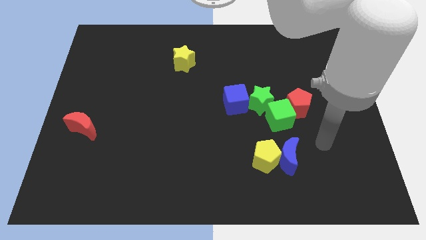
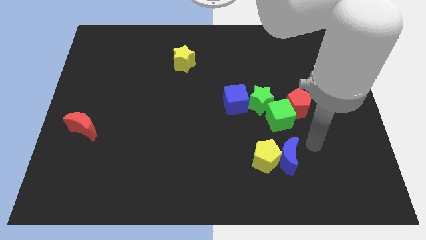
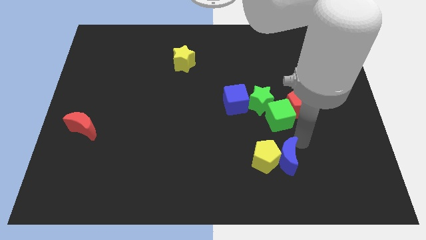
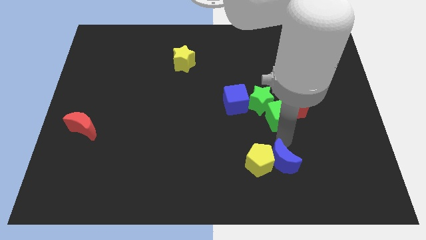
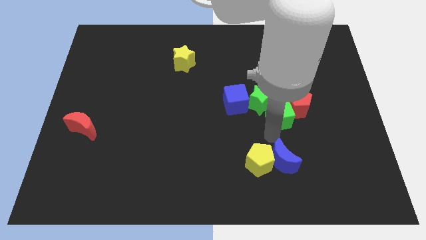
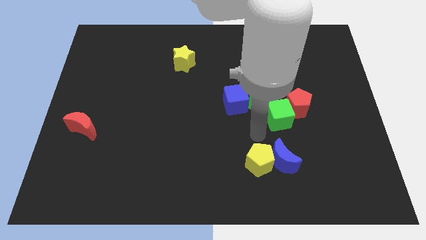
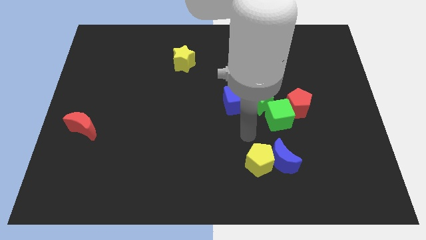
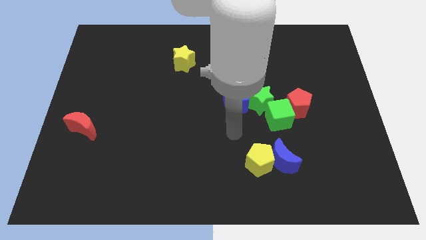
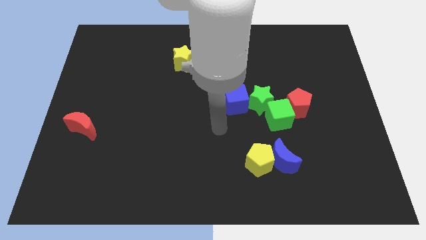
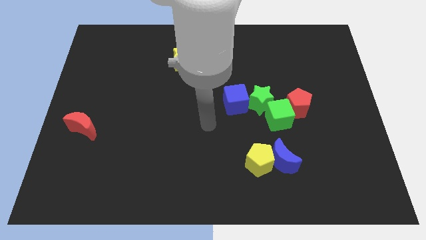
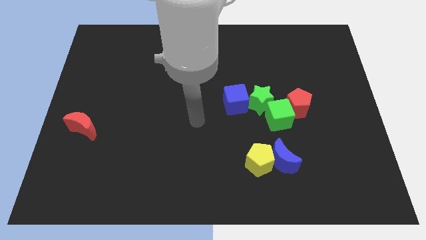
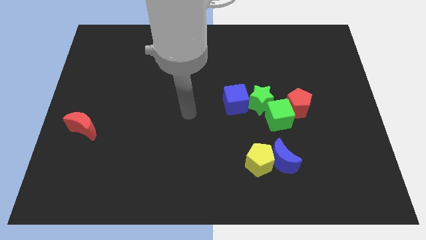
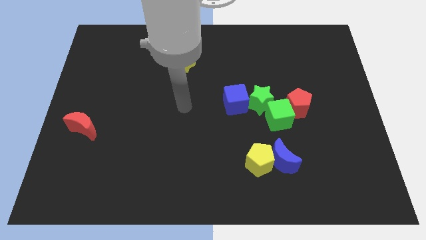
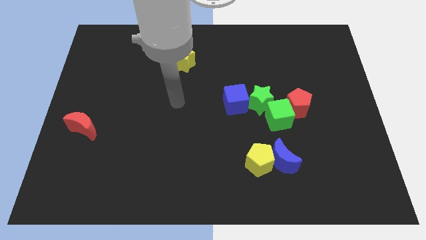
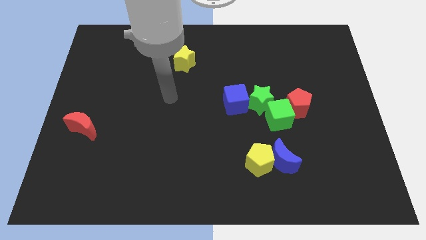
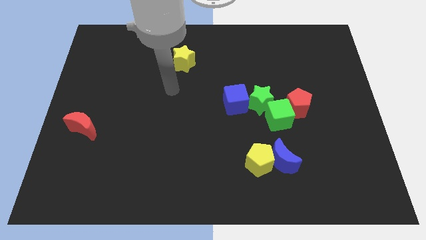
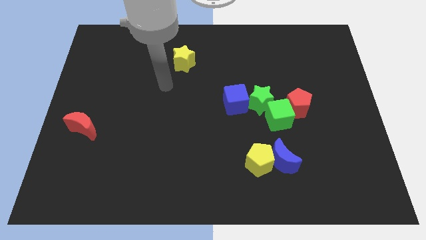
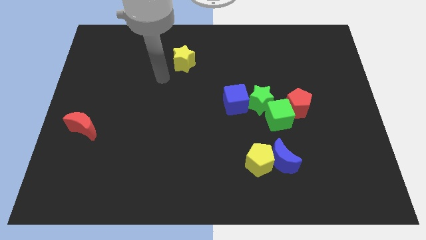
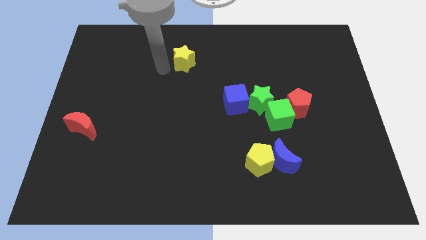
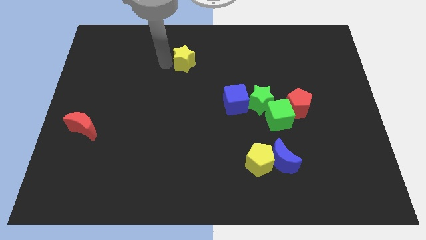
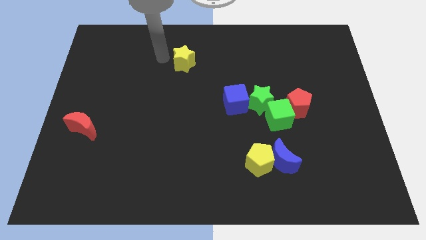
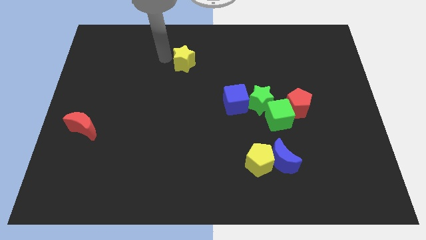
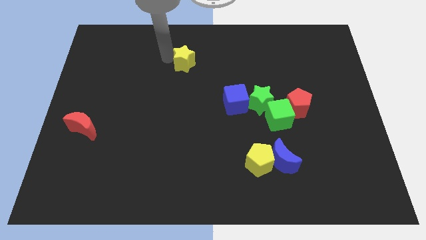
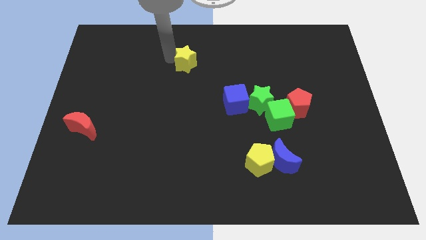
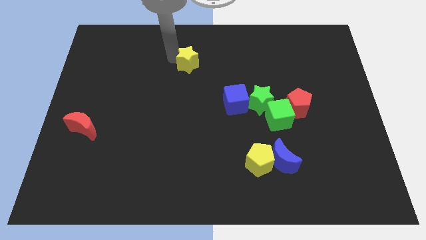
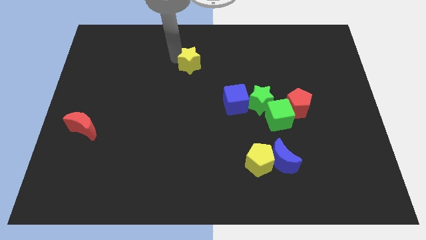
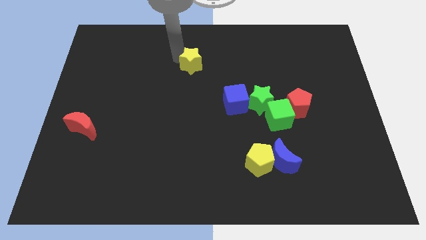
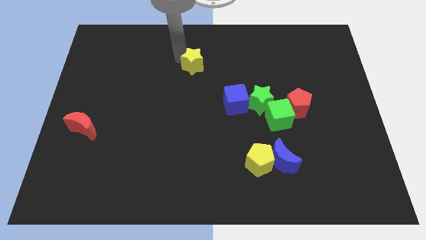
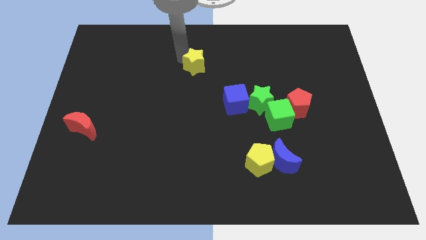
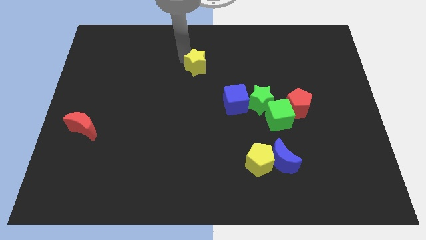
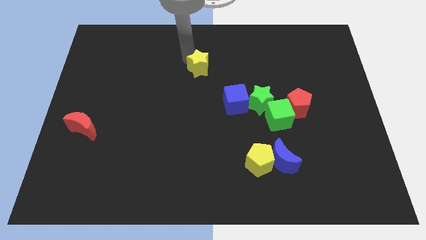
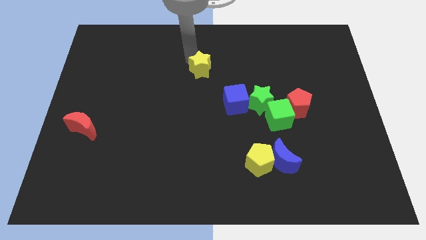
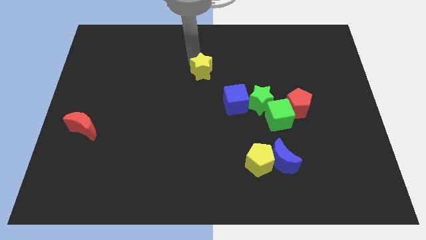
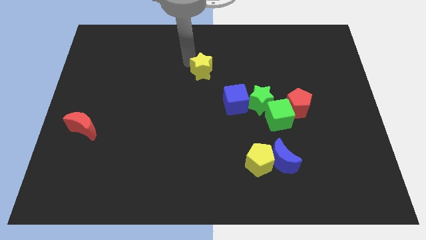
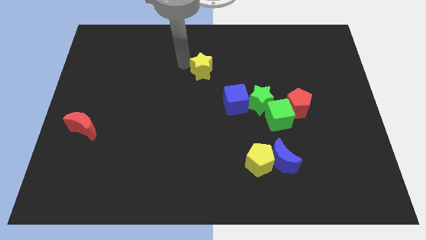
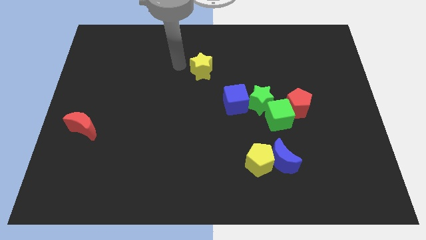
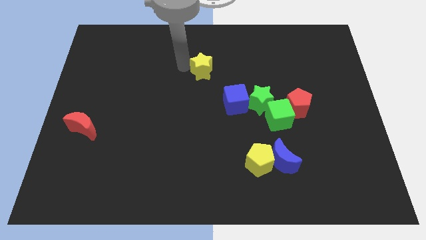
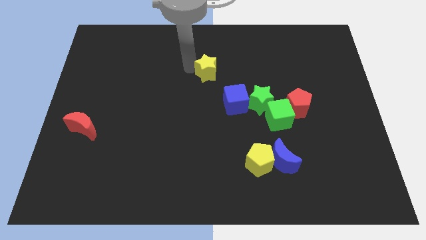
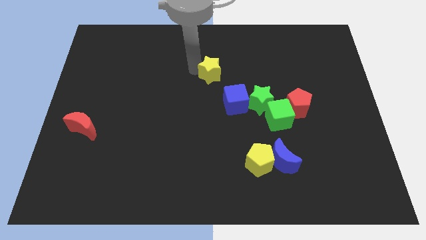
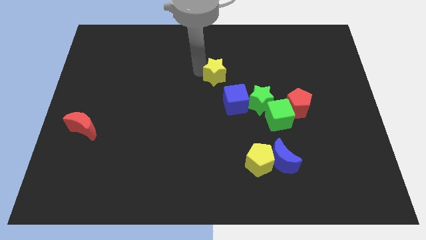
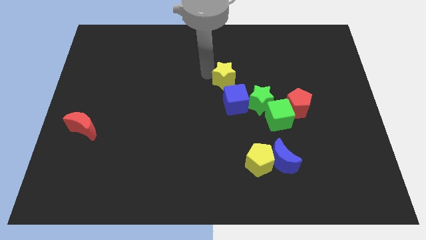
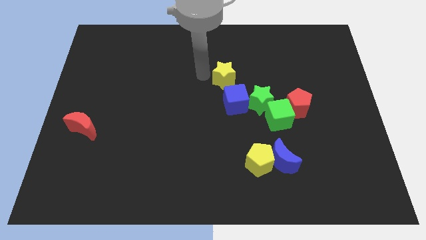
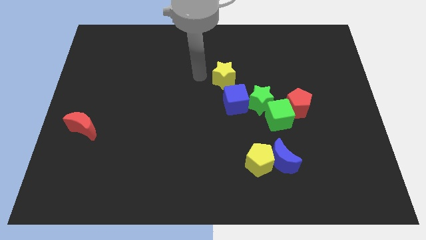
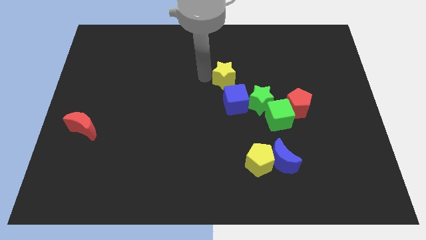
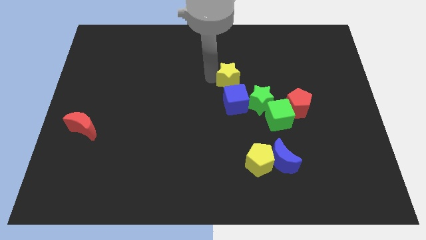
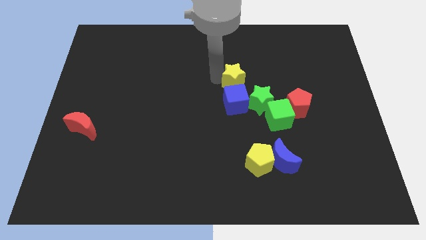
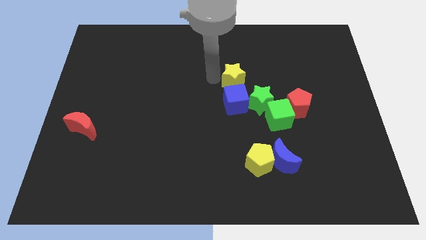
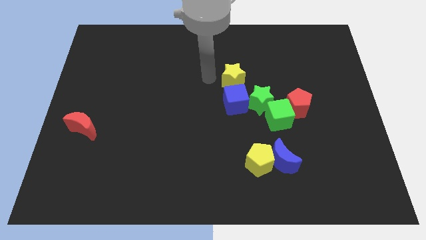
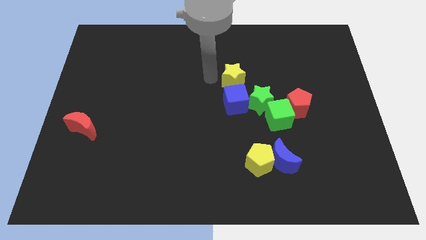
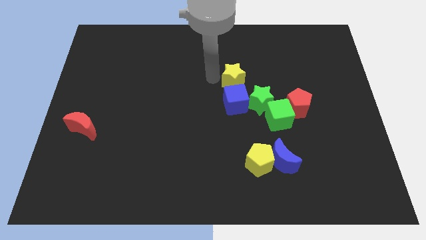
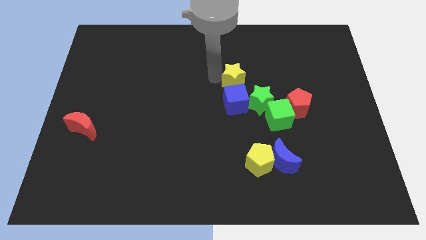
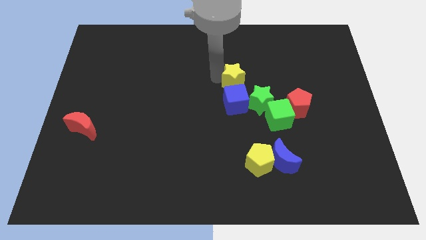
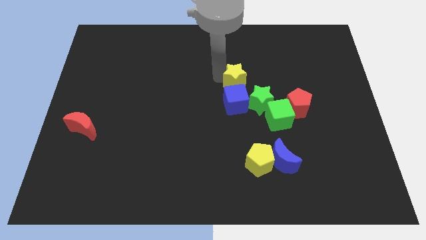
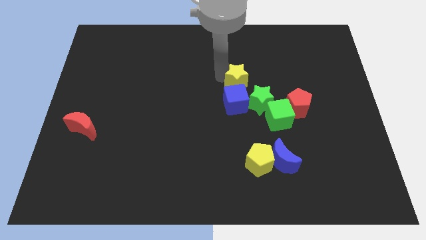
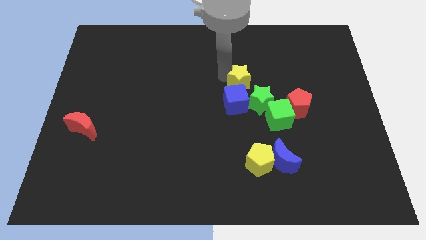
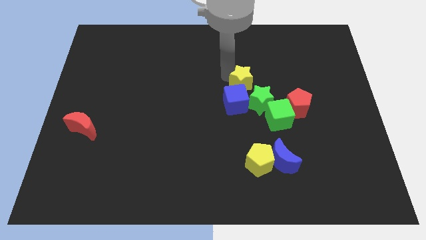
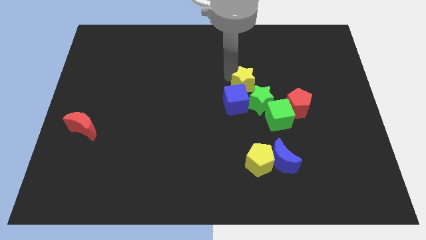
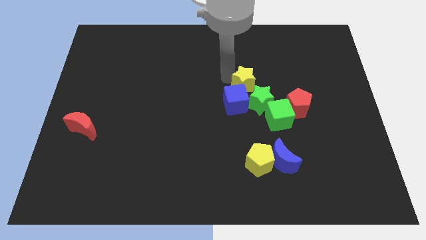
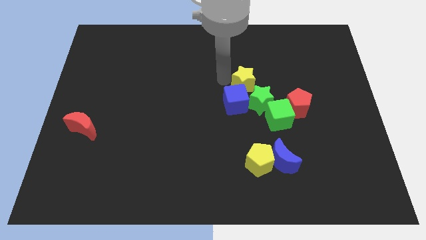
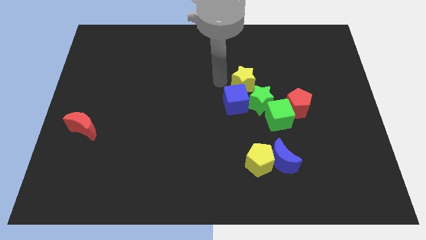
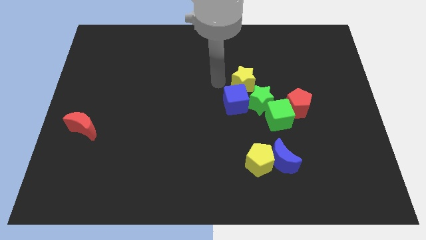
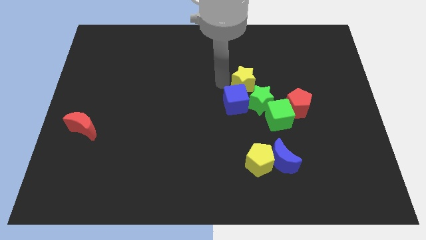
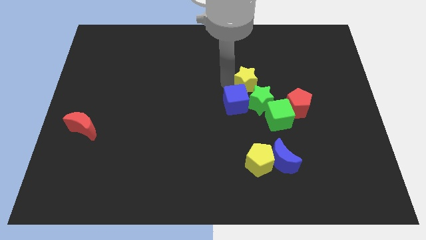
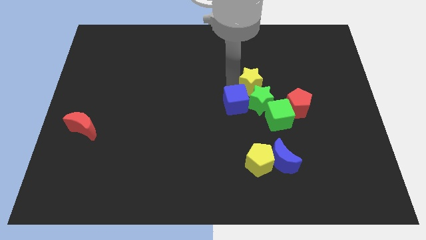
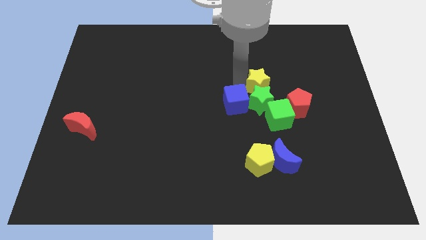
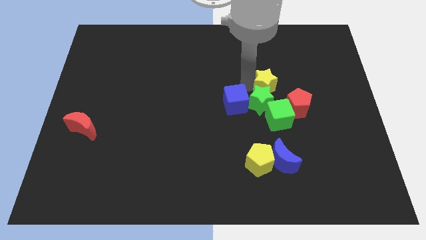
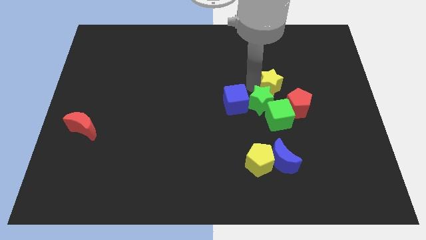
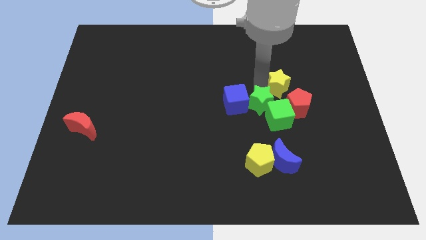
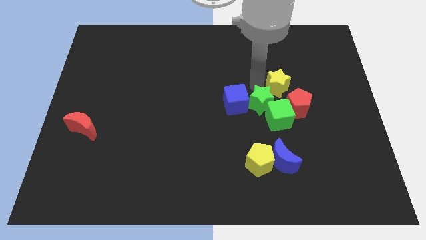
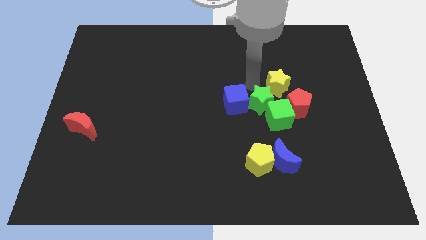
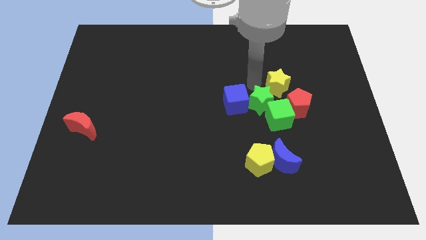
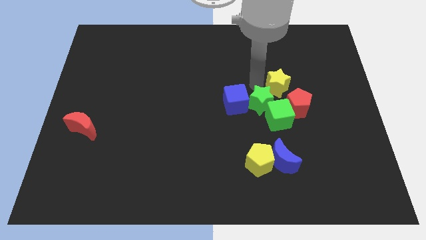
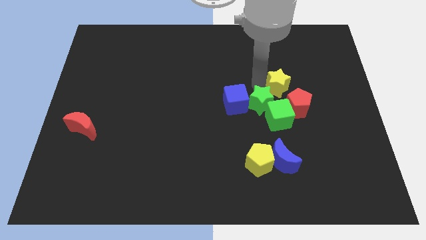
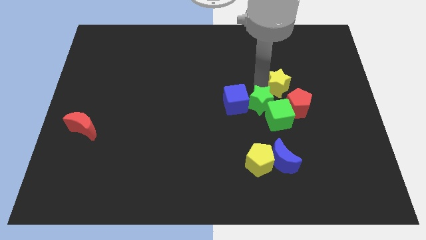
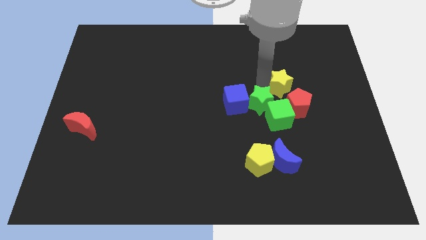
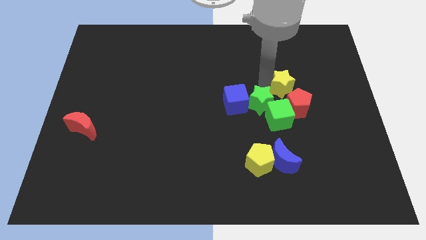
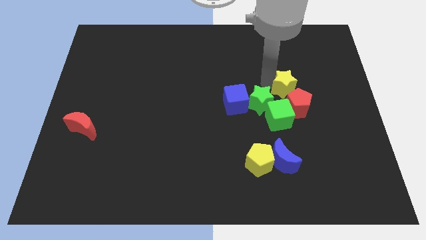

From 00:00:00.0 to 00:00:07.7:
slide the yellow star to the top right side of the green cube
